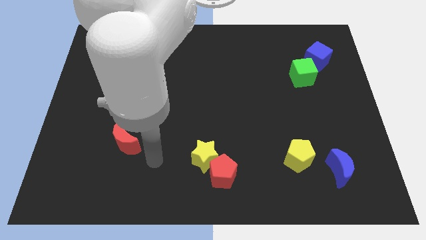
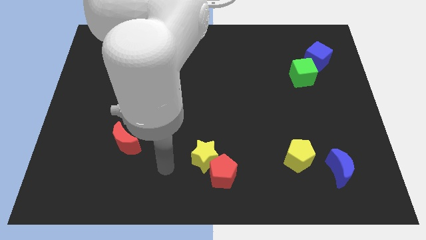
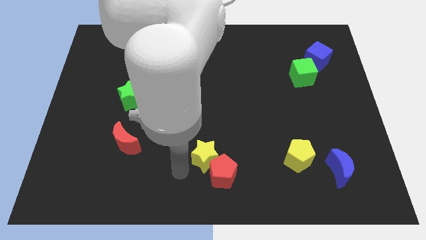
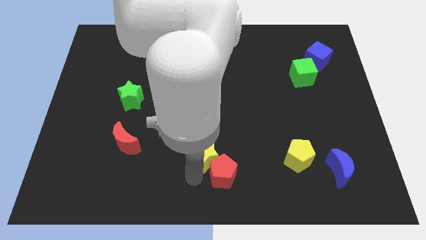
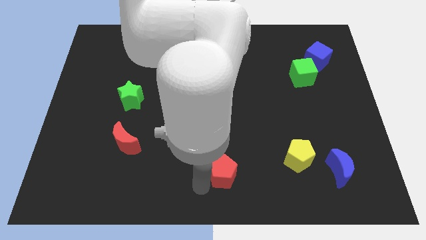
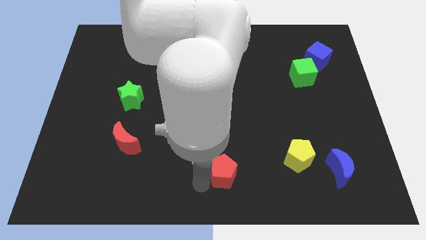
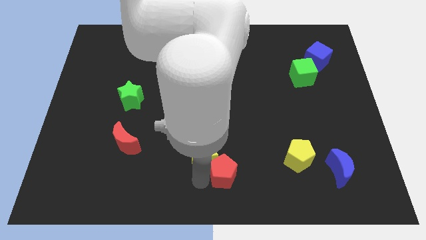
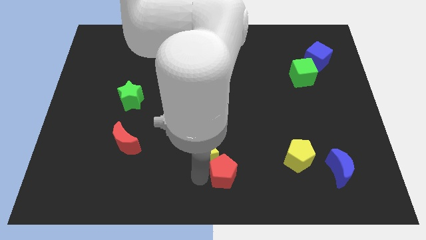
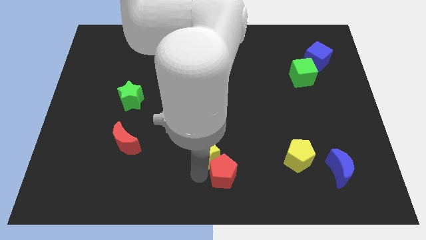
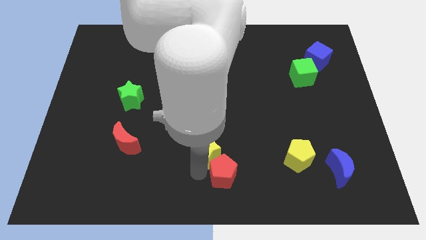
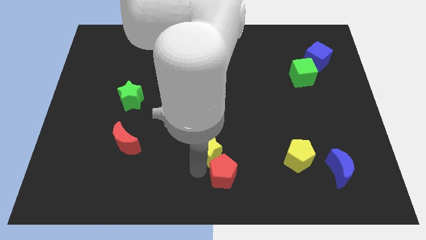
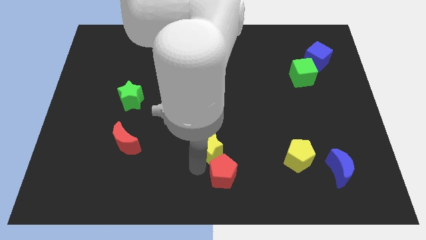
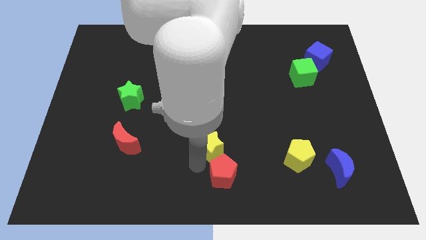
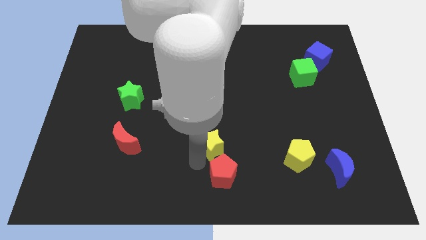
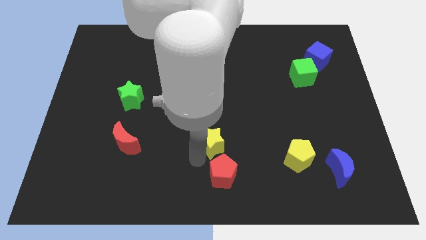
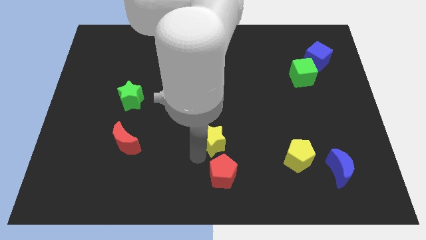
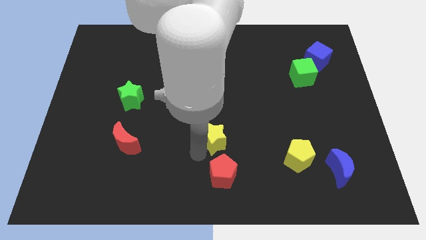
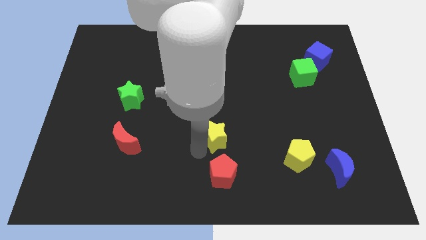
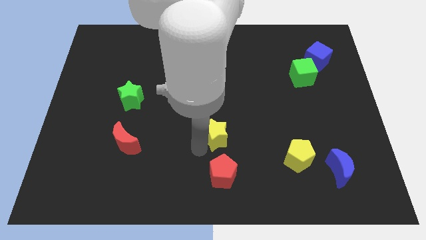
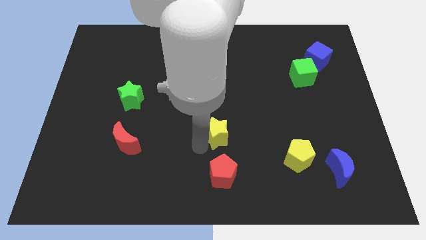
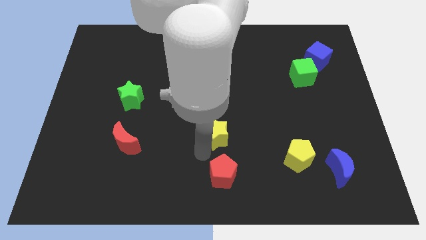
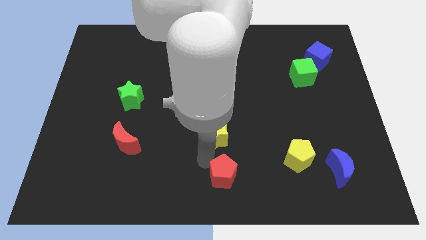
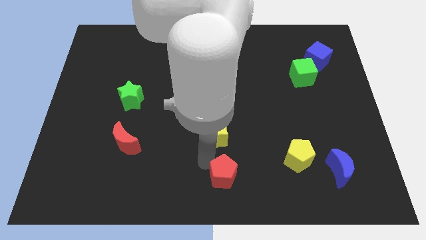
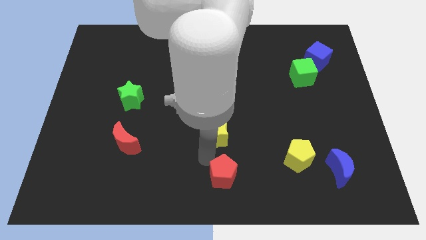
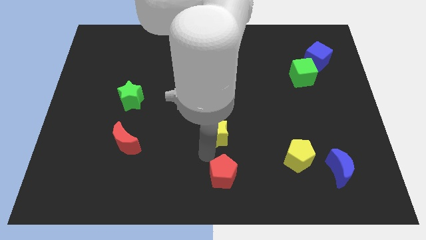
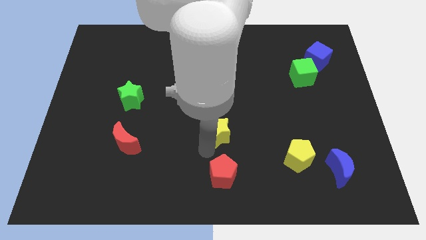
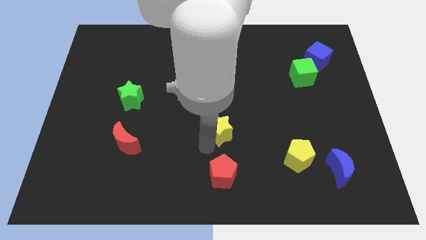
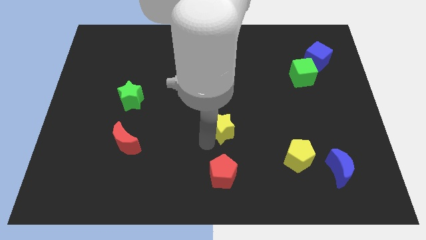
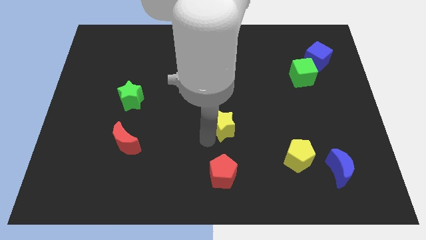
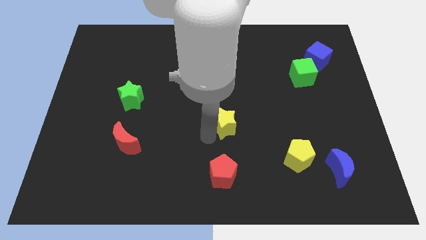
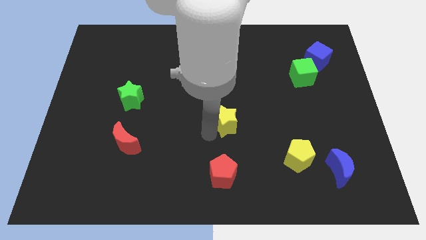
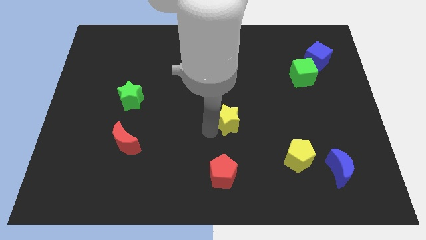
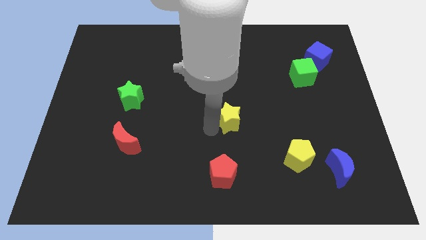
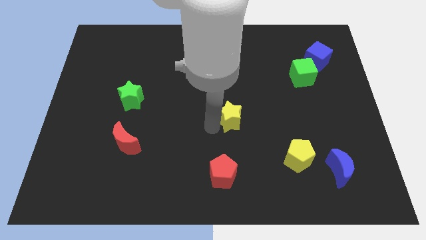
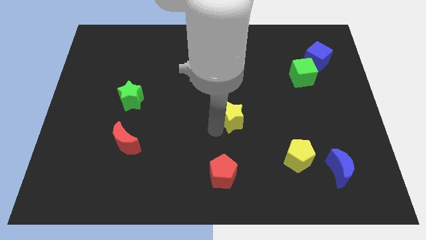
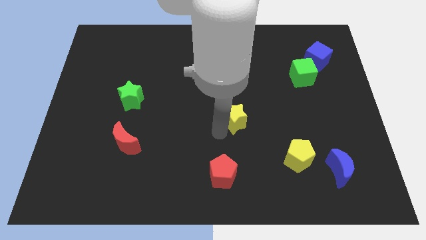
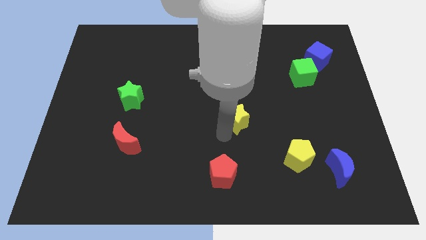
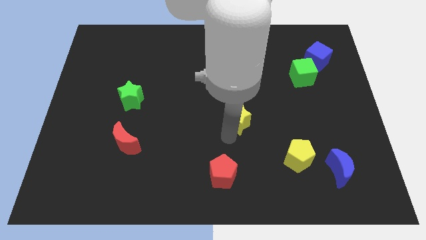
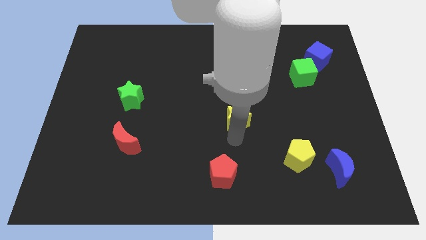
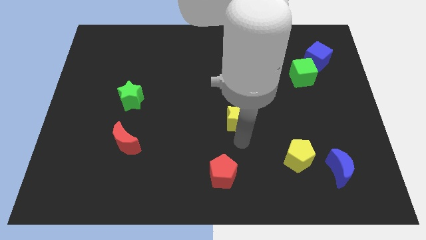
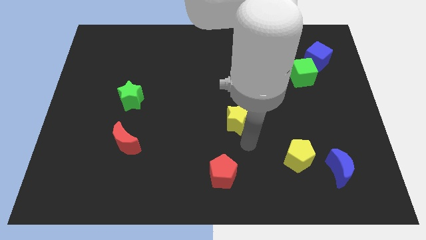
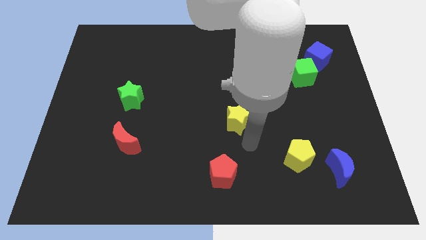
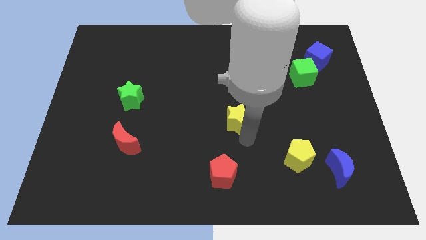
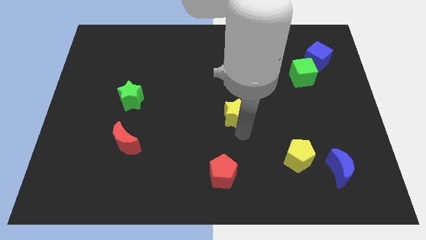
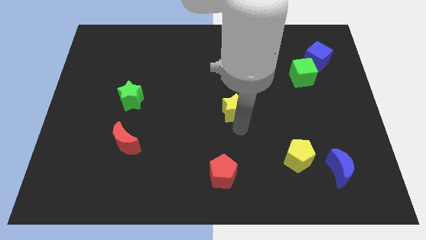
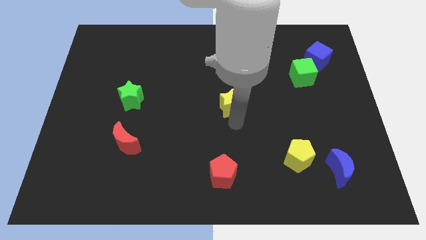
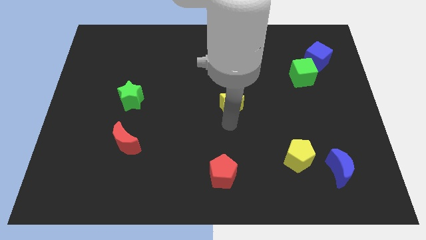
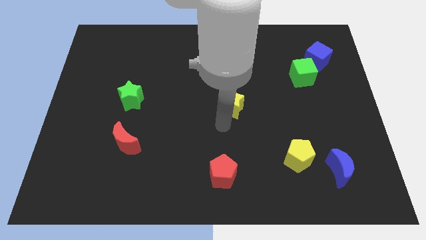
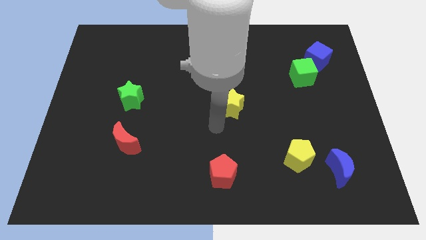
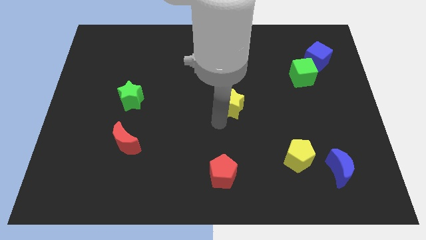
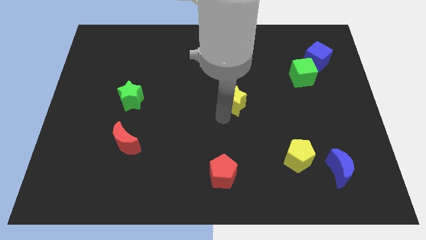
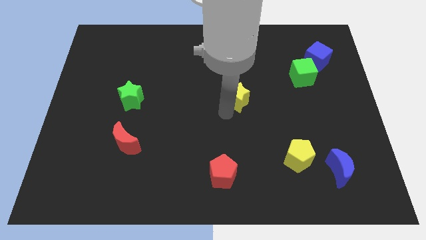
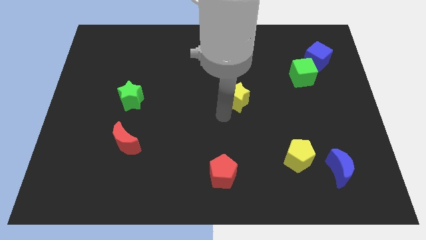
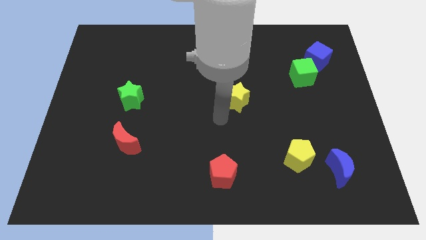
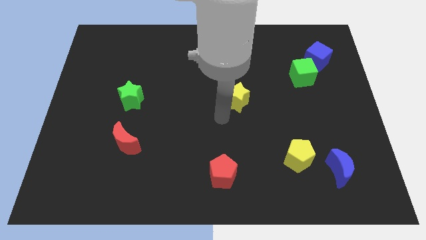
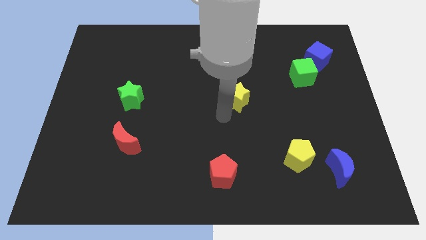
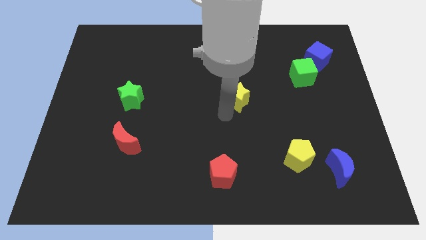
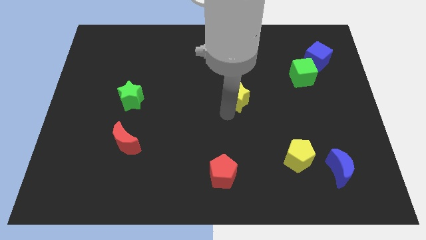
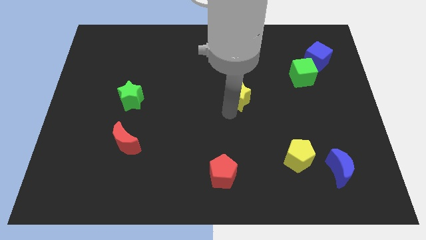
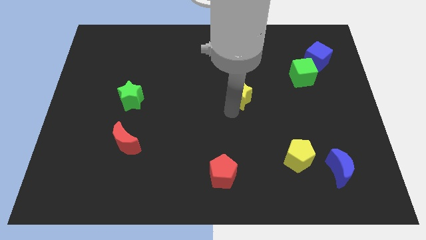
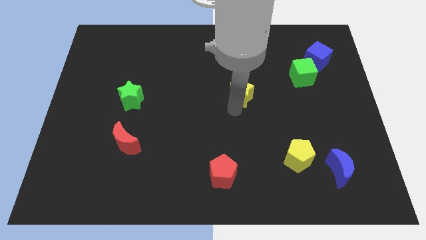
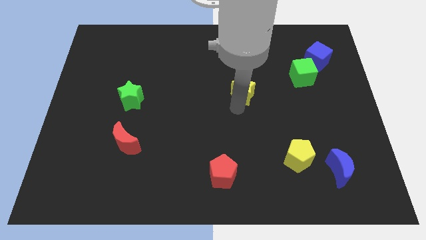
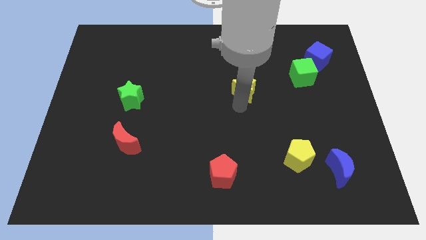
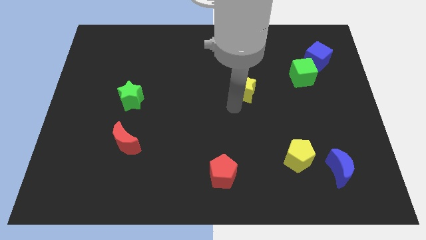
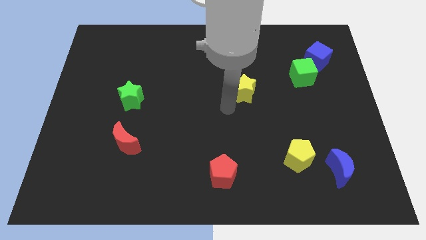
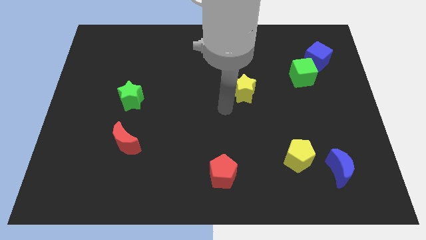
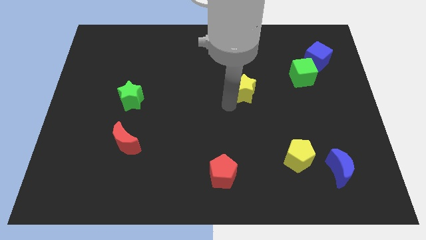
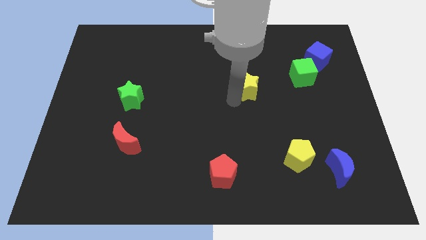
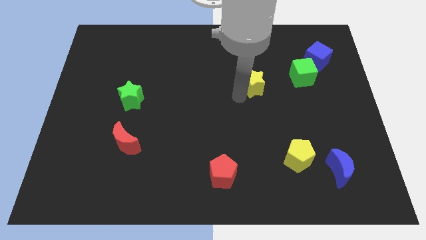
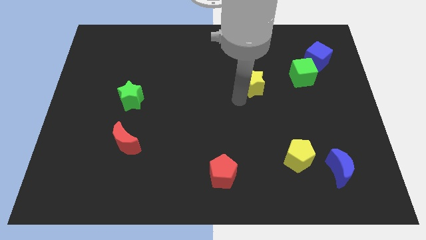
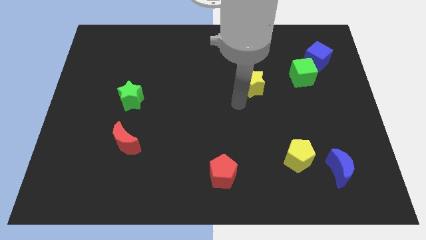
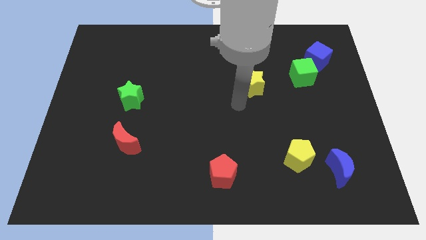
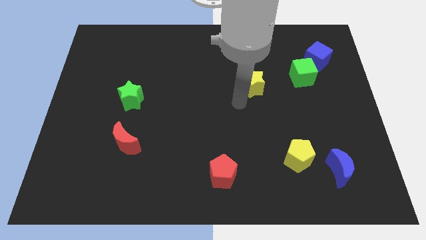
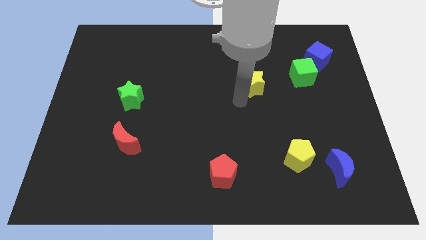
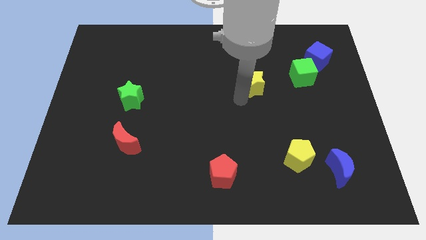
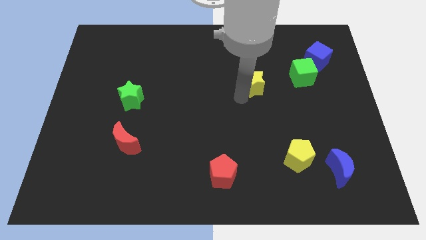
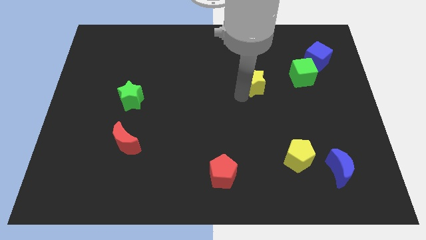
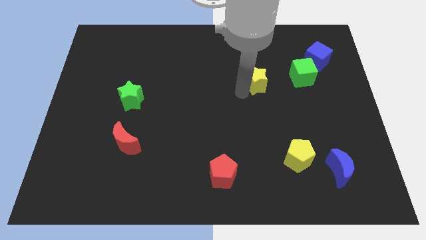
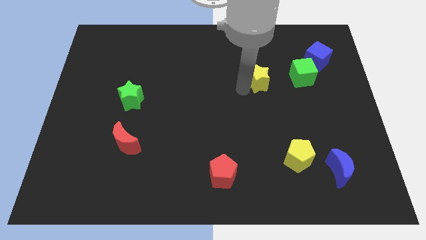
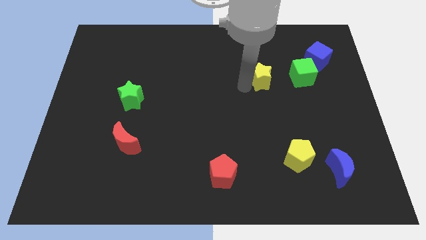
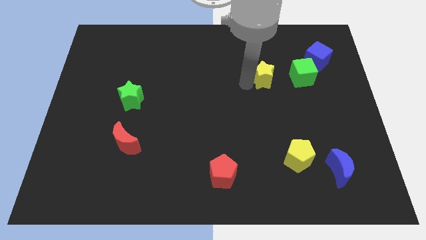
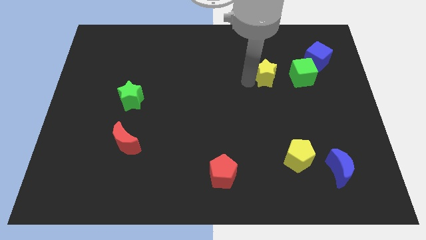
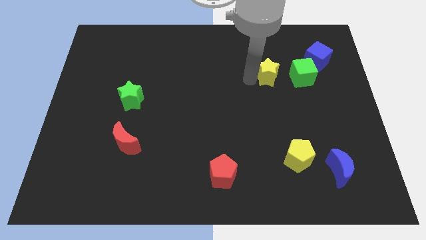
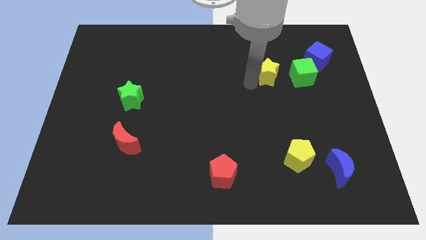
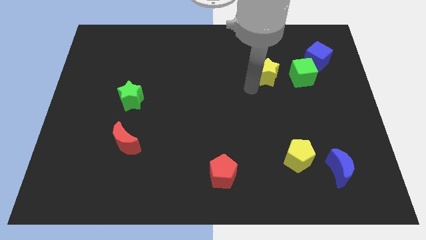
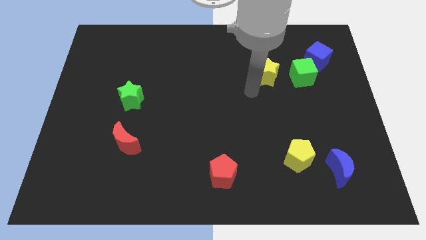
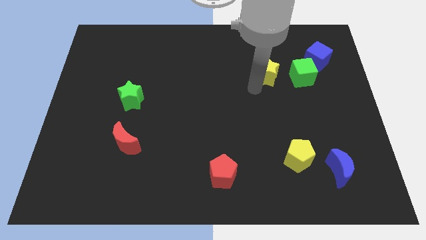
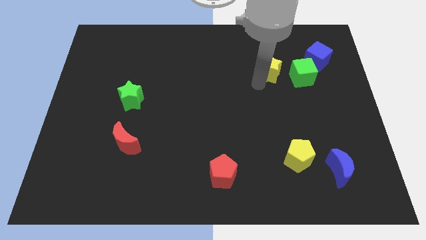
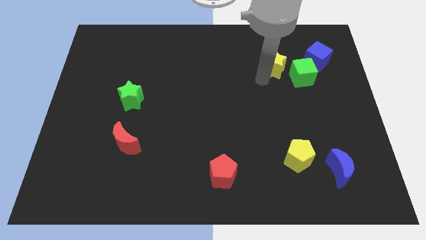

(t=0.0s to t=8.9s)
slide the yellow star to the top left of the green cube
